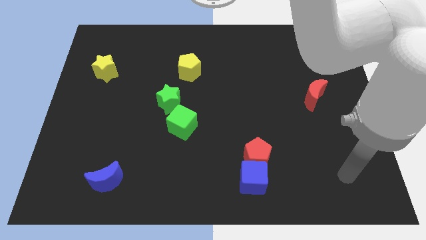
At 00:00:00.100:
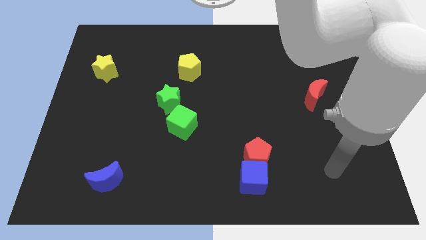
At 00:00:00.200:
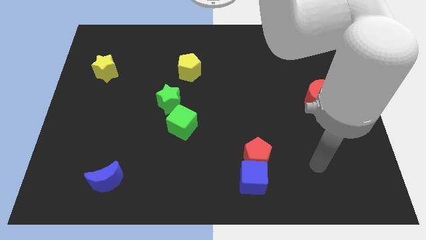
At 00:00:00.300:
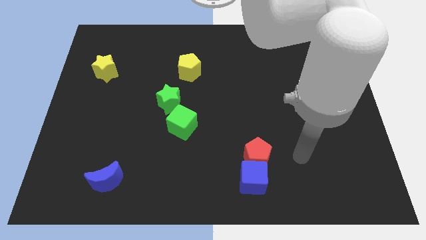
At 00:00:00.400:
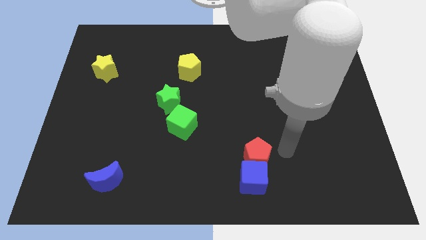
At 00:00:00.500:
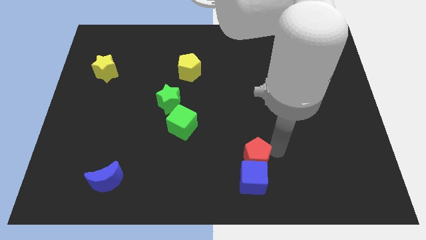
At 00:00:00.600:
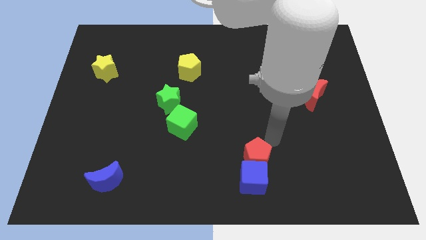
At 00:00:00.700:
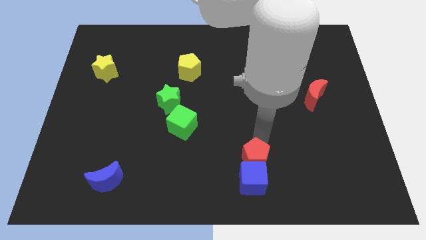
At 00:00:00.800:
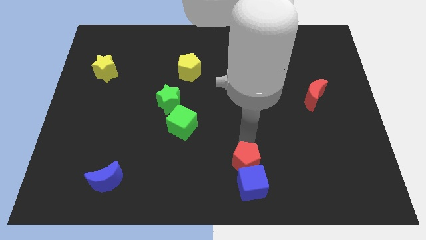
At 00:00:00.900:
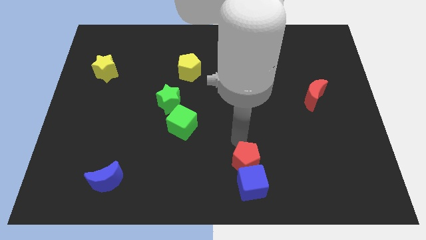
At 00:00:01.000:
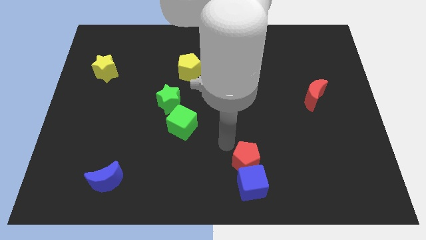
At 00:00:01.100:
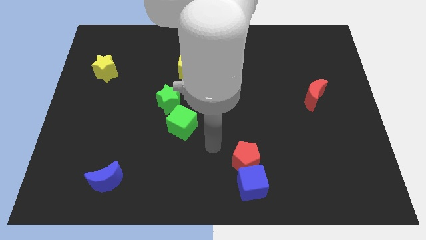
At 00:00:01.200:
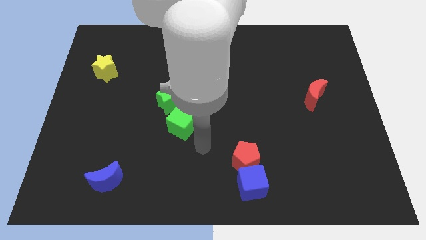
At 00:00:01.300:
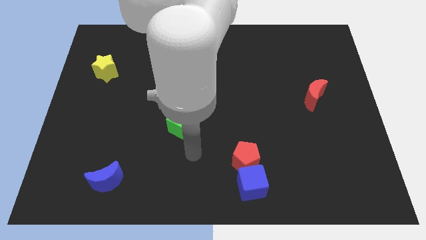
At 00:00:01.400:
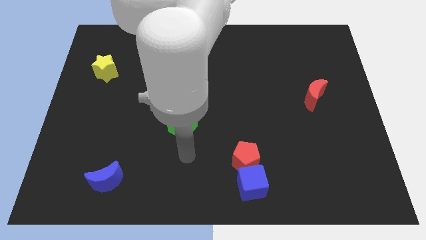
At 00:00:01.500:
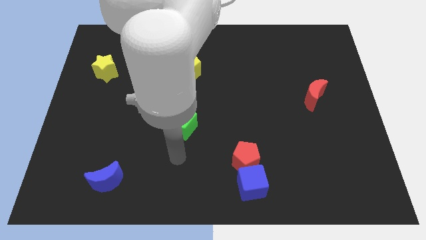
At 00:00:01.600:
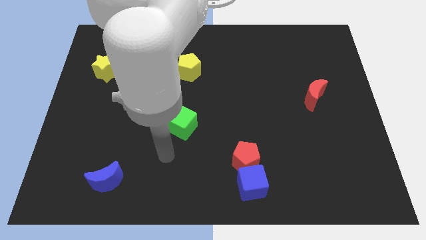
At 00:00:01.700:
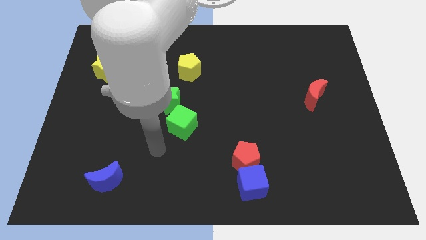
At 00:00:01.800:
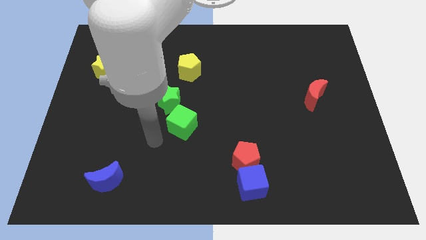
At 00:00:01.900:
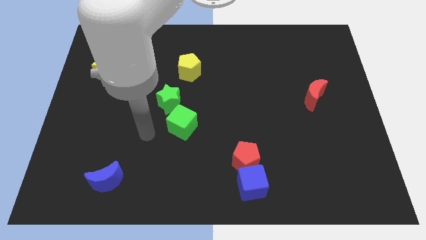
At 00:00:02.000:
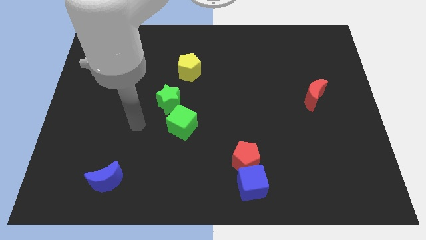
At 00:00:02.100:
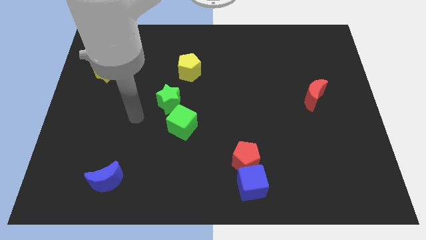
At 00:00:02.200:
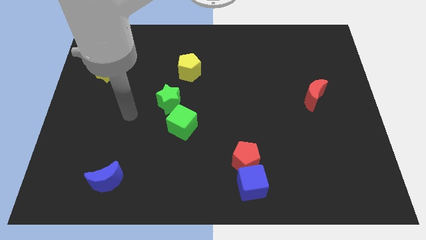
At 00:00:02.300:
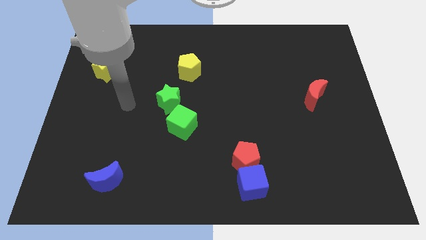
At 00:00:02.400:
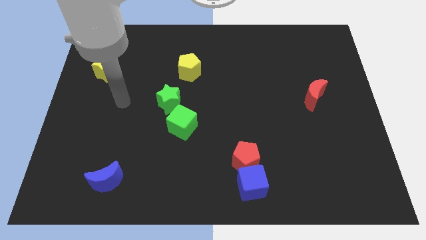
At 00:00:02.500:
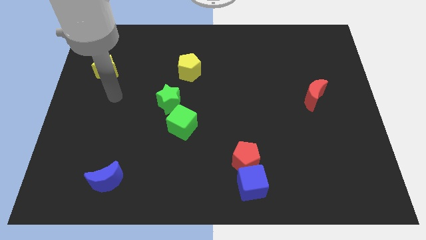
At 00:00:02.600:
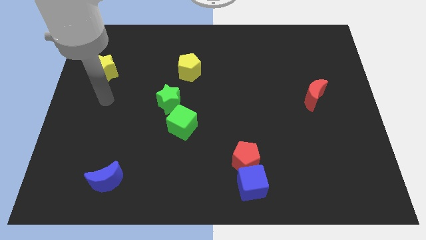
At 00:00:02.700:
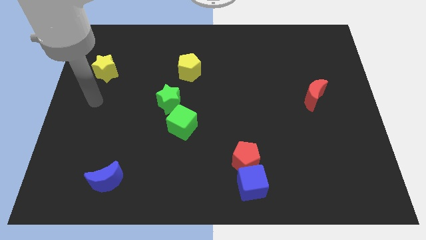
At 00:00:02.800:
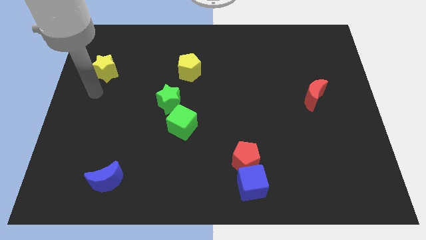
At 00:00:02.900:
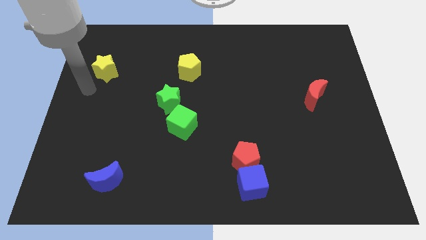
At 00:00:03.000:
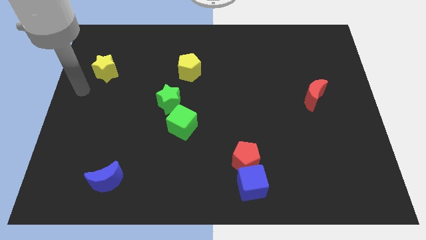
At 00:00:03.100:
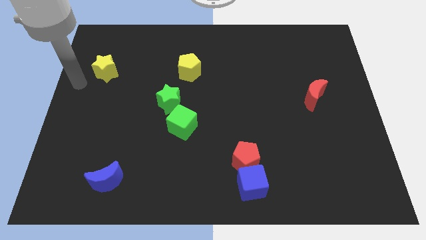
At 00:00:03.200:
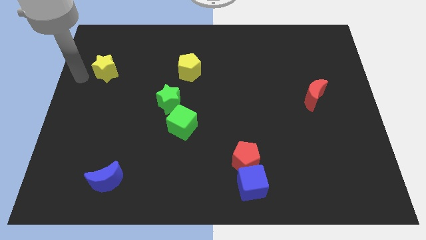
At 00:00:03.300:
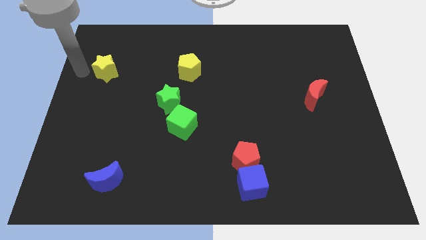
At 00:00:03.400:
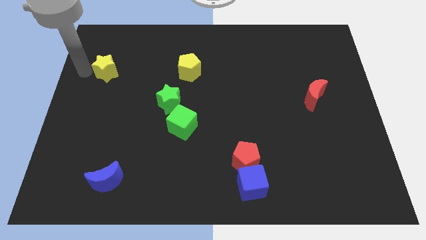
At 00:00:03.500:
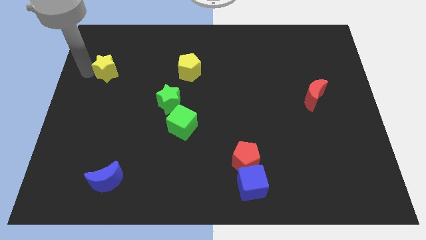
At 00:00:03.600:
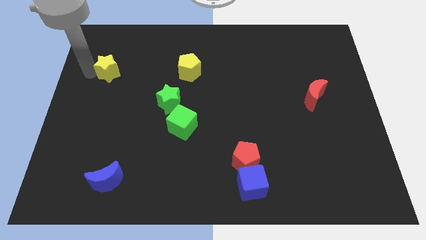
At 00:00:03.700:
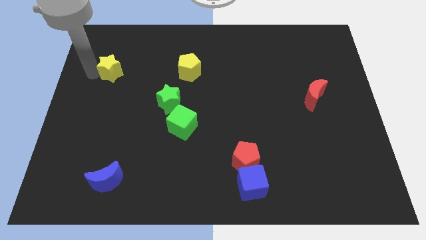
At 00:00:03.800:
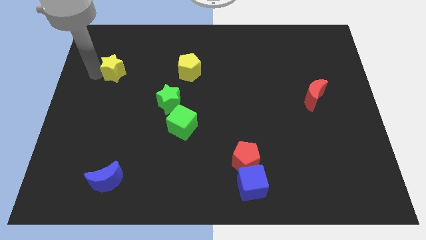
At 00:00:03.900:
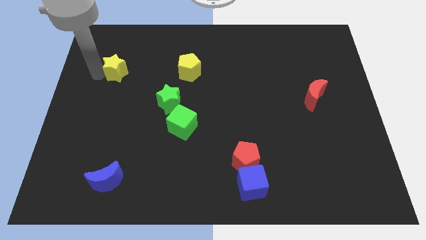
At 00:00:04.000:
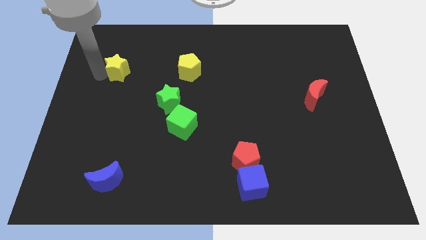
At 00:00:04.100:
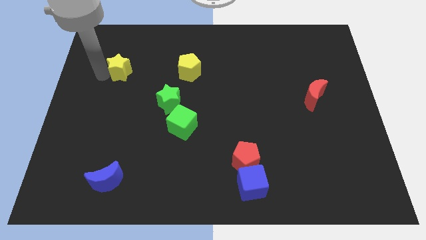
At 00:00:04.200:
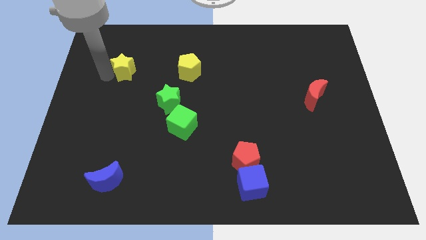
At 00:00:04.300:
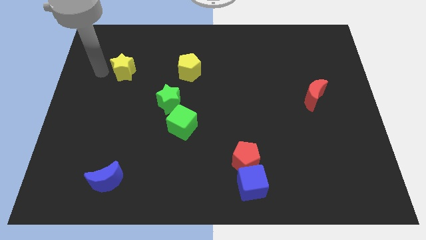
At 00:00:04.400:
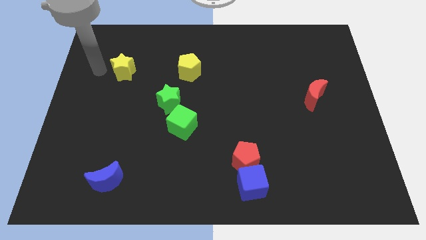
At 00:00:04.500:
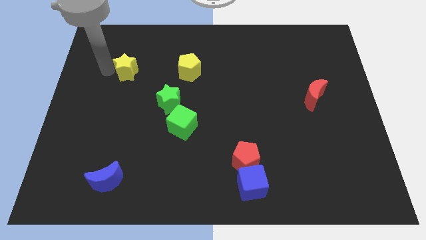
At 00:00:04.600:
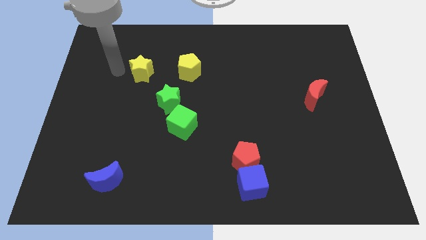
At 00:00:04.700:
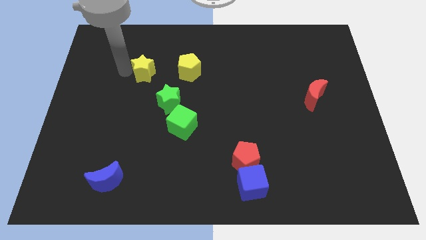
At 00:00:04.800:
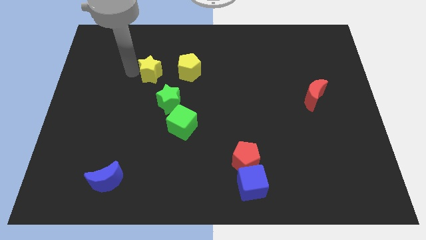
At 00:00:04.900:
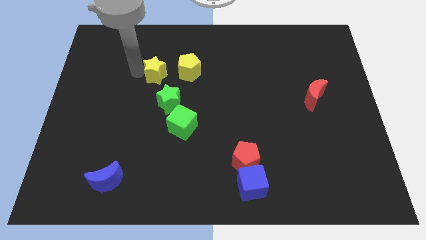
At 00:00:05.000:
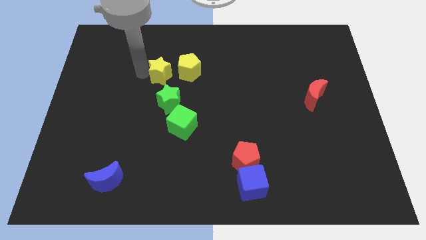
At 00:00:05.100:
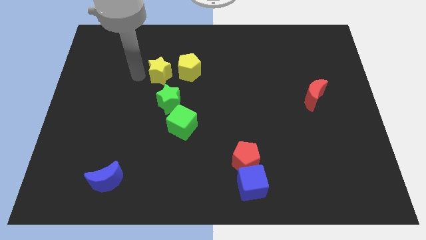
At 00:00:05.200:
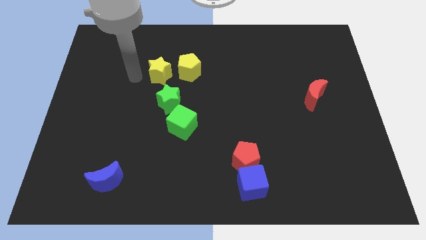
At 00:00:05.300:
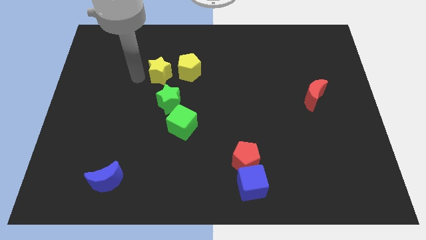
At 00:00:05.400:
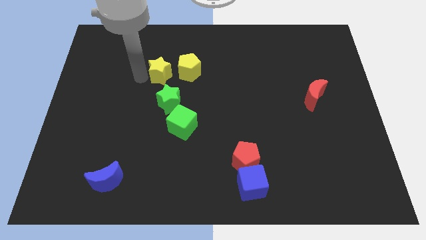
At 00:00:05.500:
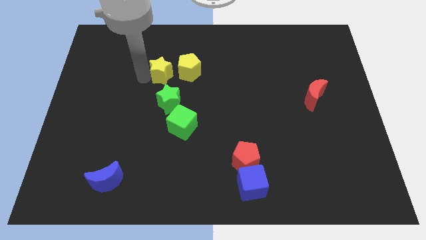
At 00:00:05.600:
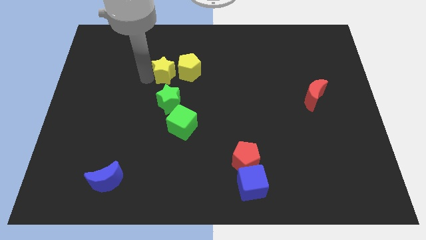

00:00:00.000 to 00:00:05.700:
move the yellow star close to the yellow pentagon
